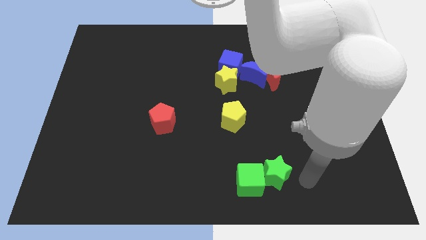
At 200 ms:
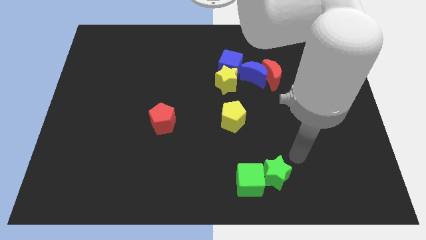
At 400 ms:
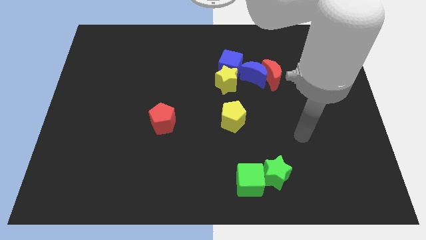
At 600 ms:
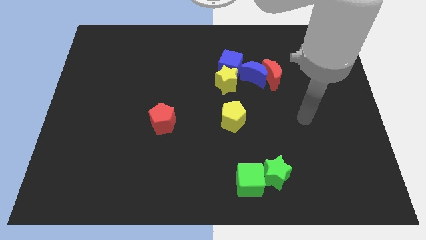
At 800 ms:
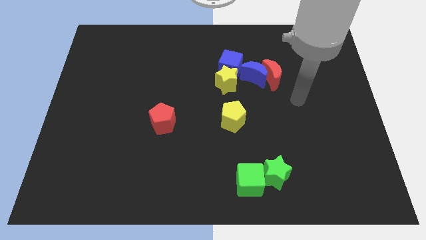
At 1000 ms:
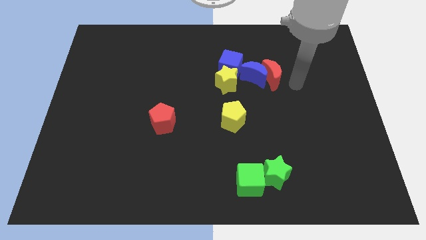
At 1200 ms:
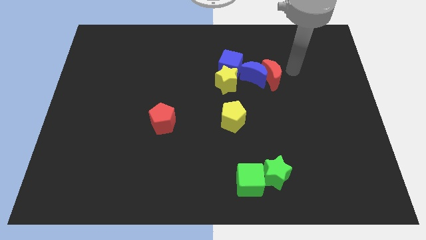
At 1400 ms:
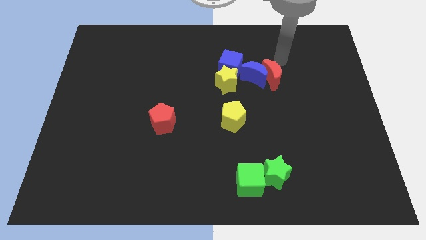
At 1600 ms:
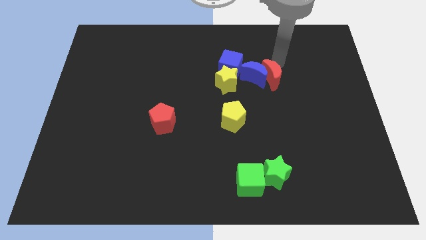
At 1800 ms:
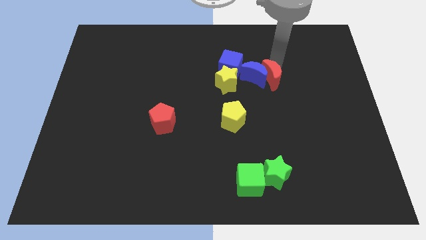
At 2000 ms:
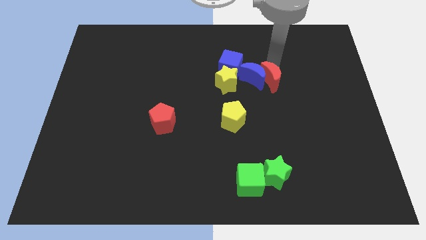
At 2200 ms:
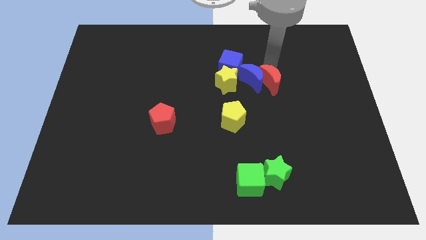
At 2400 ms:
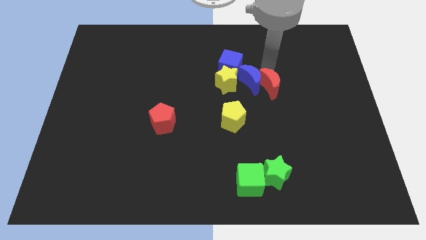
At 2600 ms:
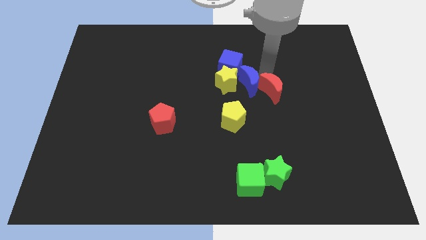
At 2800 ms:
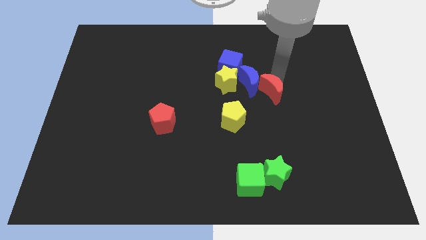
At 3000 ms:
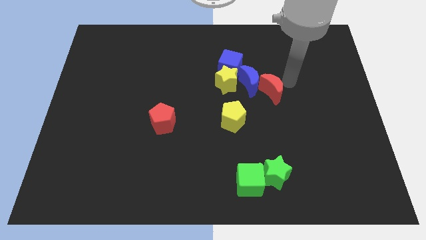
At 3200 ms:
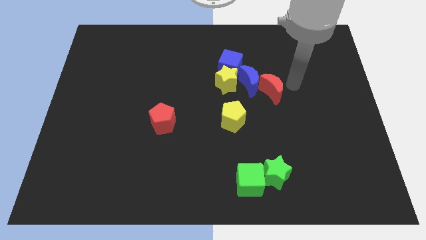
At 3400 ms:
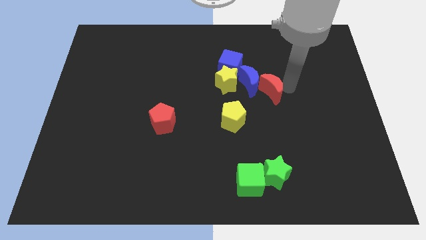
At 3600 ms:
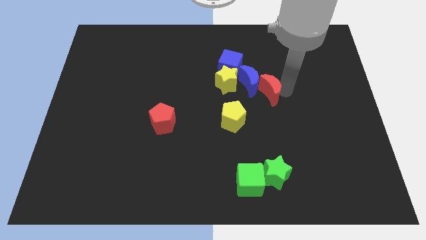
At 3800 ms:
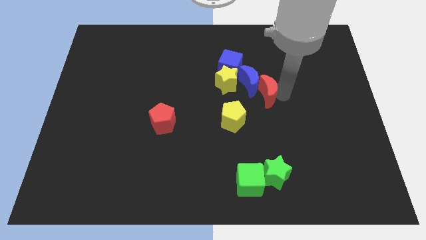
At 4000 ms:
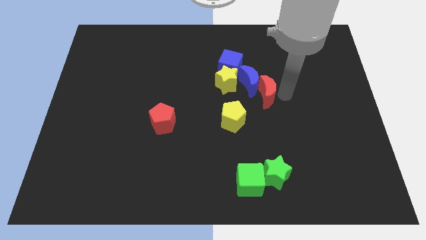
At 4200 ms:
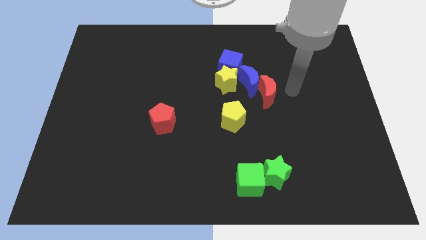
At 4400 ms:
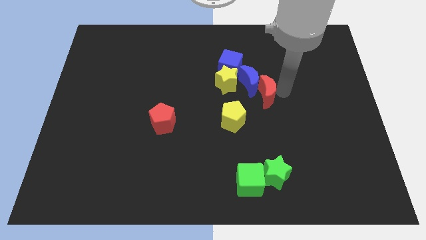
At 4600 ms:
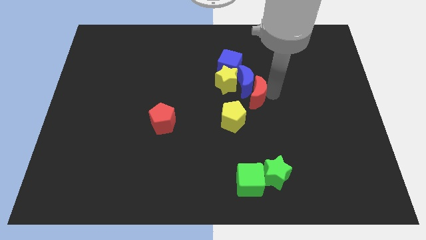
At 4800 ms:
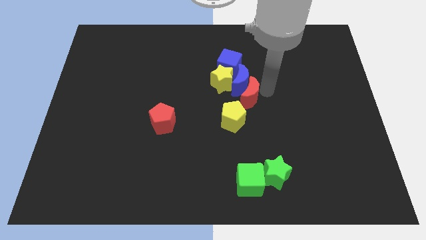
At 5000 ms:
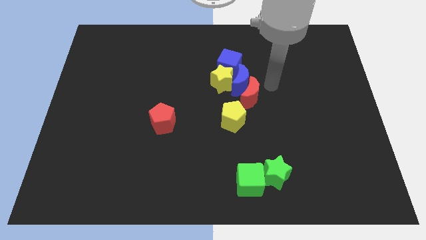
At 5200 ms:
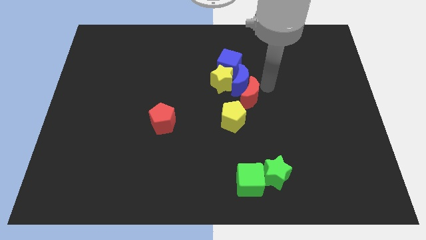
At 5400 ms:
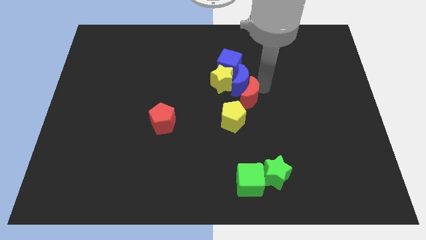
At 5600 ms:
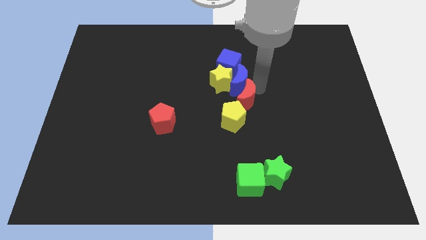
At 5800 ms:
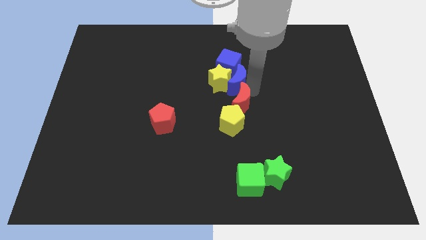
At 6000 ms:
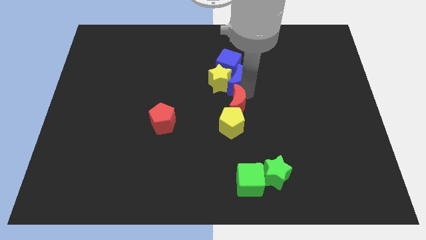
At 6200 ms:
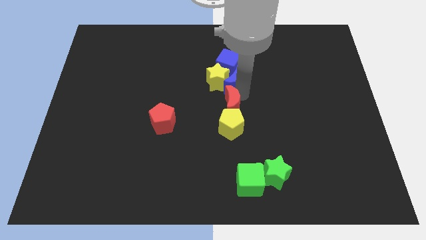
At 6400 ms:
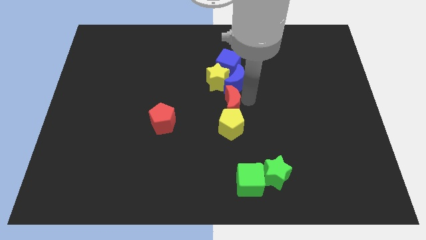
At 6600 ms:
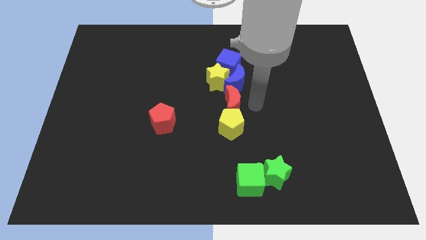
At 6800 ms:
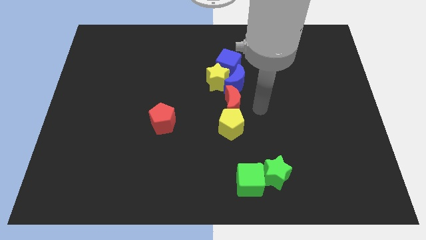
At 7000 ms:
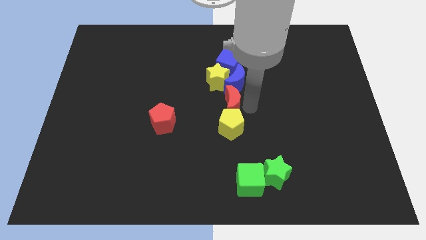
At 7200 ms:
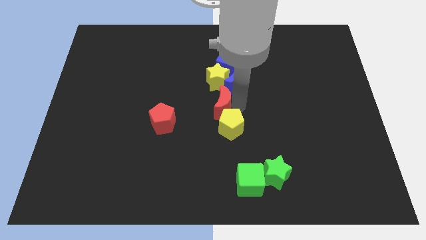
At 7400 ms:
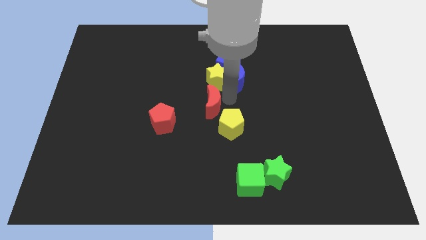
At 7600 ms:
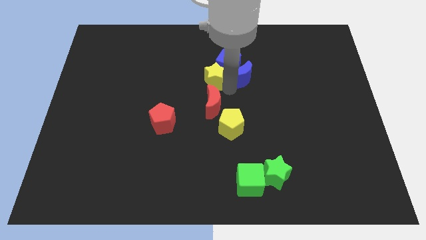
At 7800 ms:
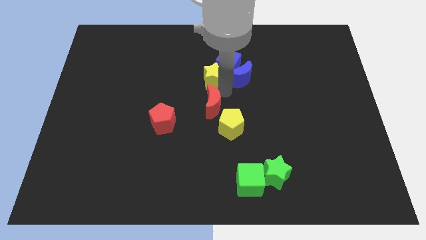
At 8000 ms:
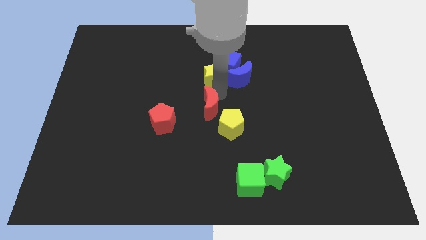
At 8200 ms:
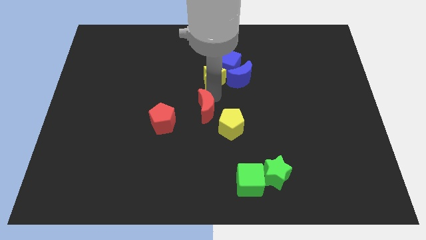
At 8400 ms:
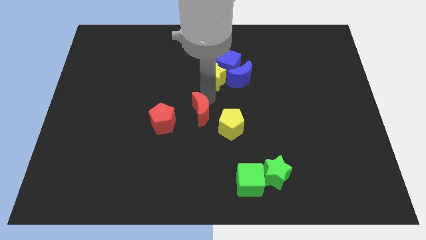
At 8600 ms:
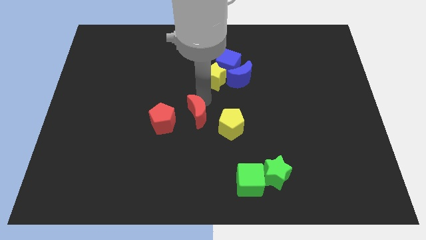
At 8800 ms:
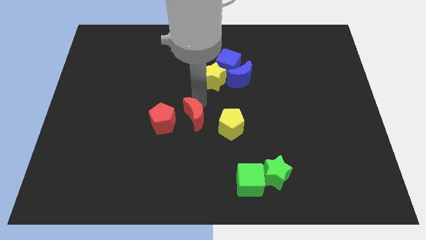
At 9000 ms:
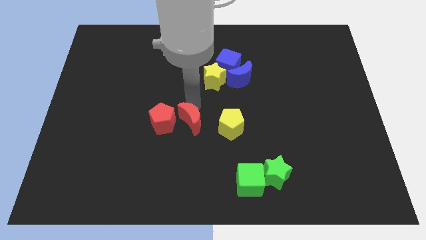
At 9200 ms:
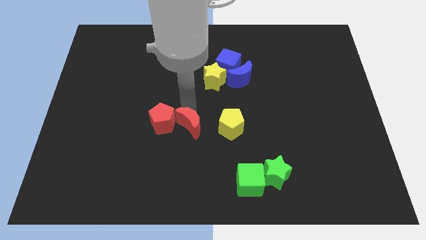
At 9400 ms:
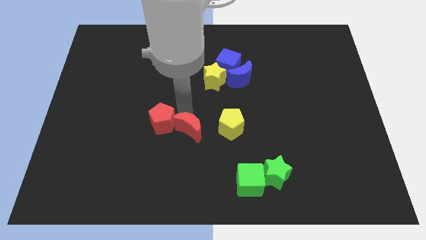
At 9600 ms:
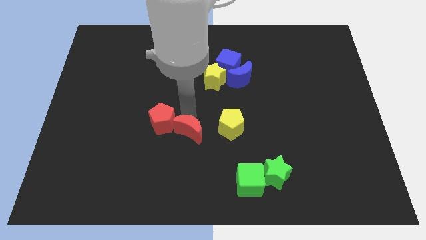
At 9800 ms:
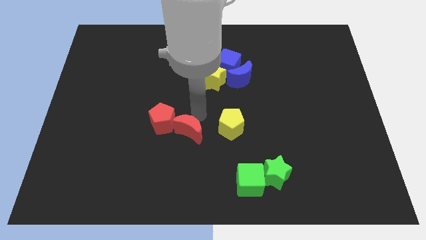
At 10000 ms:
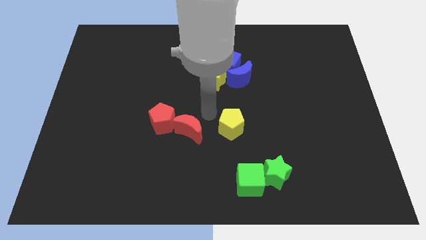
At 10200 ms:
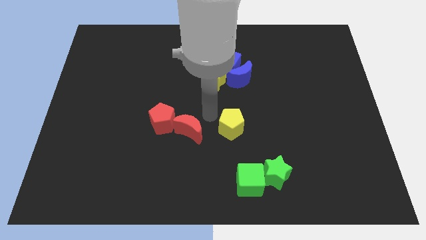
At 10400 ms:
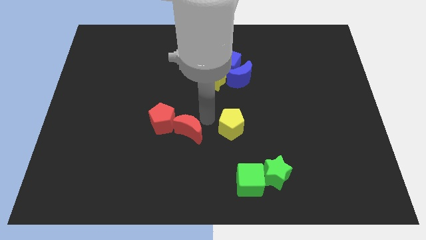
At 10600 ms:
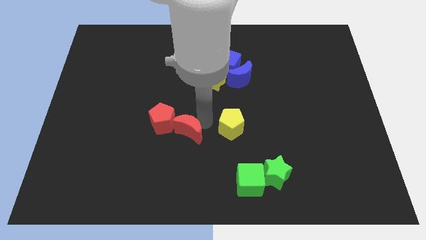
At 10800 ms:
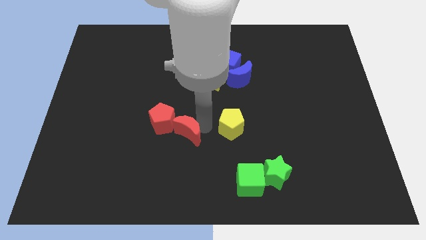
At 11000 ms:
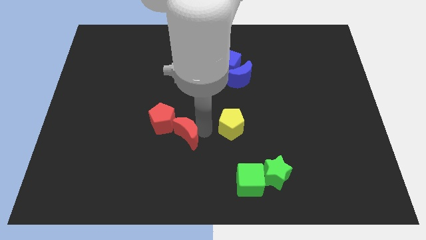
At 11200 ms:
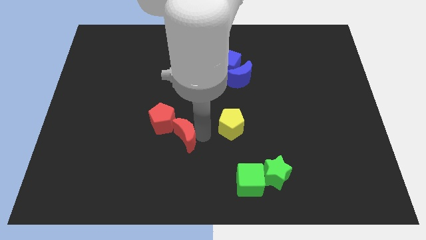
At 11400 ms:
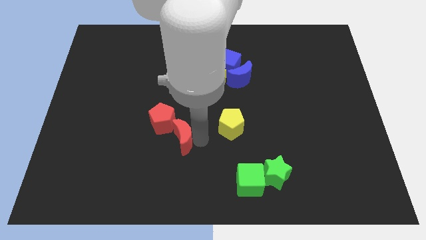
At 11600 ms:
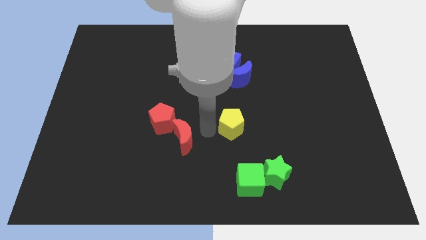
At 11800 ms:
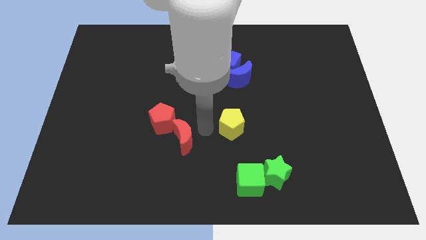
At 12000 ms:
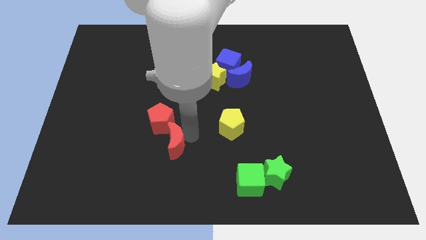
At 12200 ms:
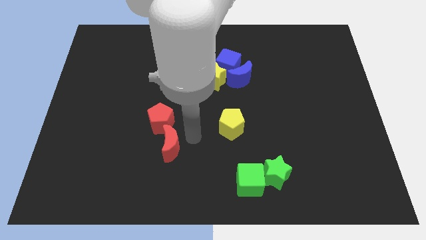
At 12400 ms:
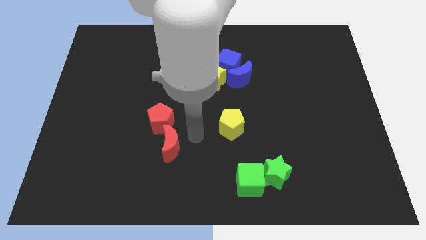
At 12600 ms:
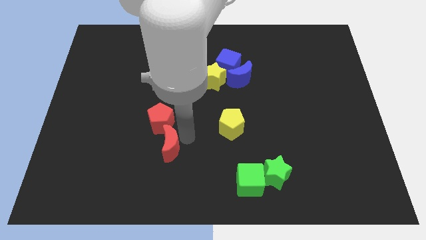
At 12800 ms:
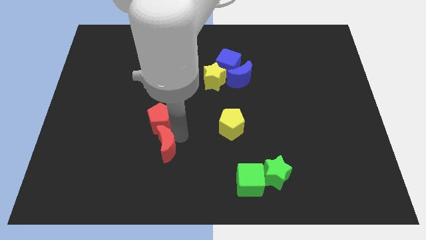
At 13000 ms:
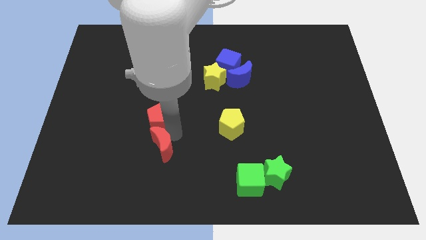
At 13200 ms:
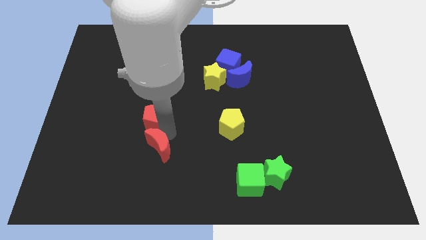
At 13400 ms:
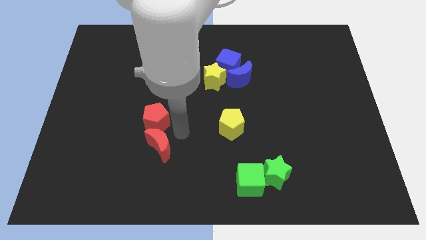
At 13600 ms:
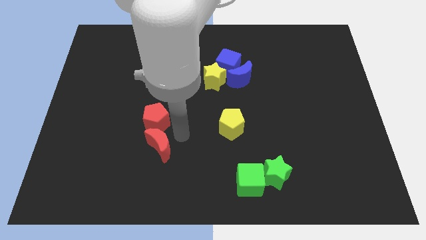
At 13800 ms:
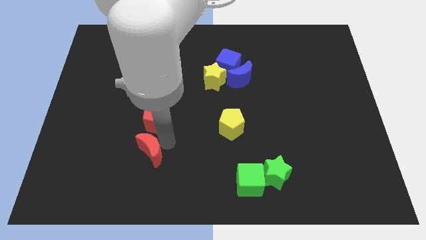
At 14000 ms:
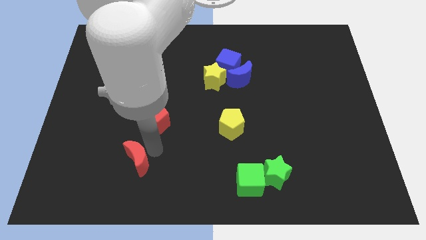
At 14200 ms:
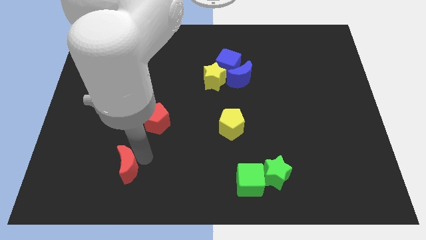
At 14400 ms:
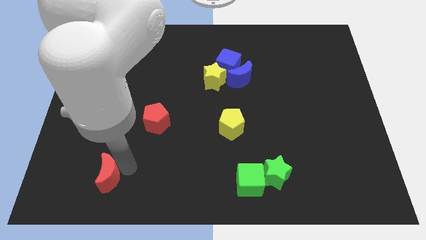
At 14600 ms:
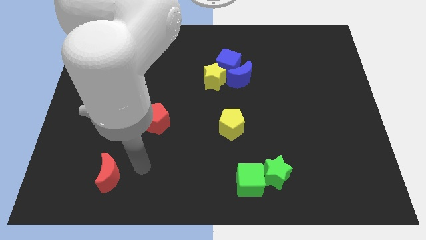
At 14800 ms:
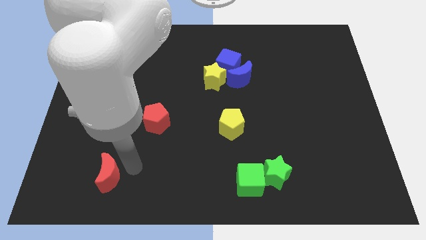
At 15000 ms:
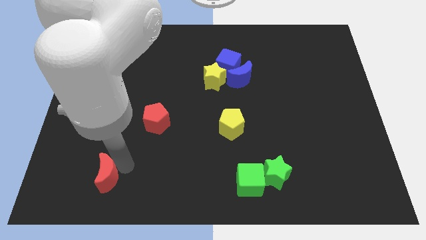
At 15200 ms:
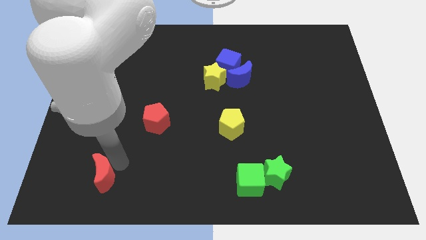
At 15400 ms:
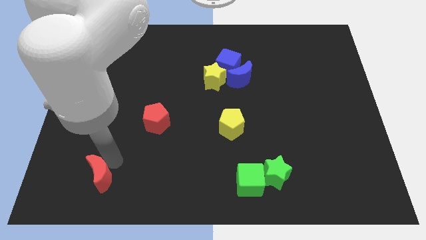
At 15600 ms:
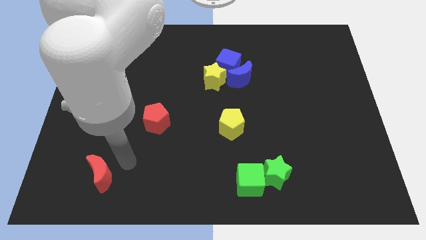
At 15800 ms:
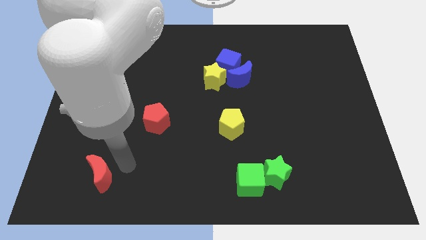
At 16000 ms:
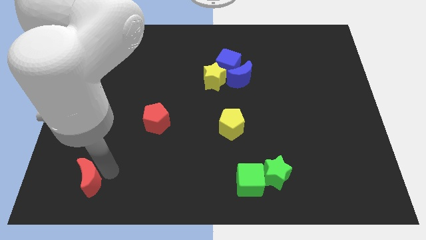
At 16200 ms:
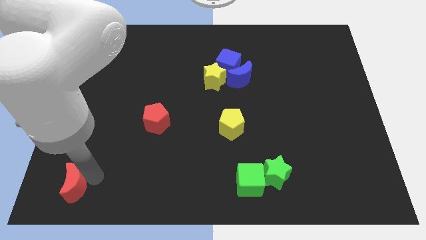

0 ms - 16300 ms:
move the red moon to the bottom left of the board
